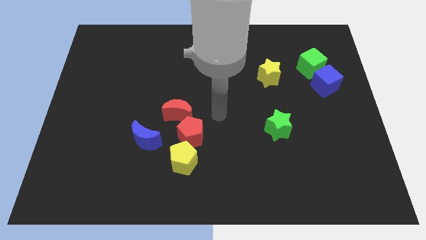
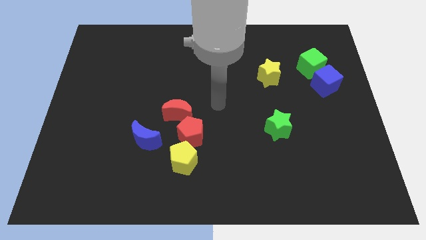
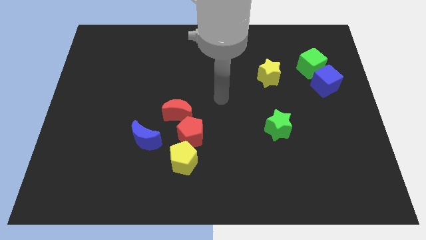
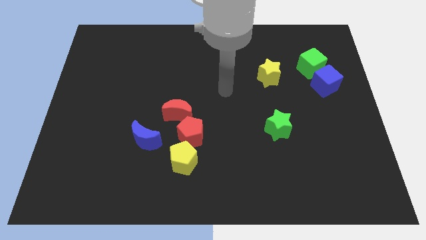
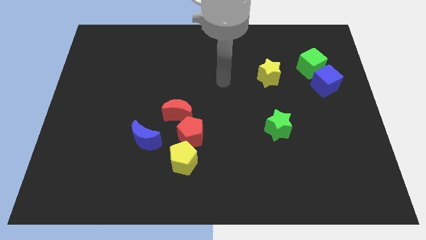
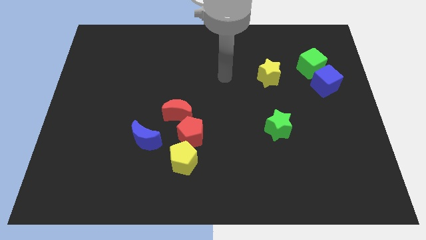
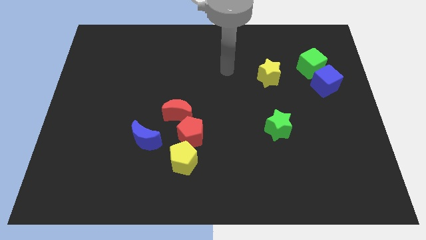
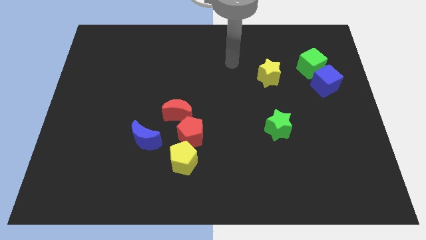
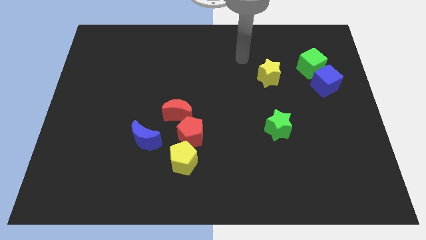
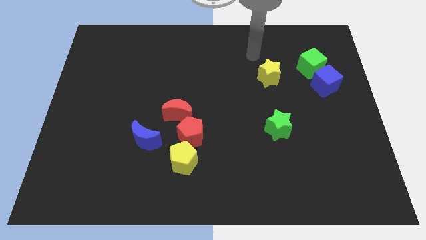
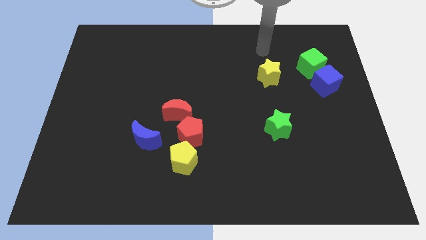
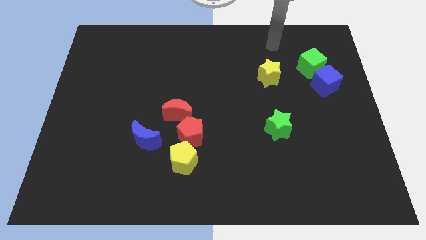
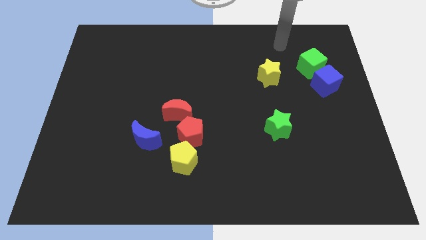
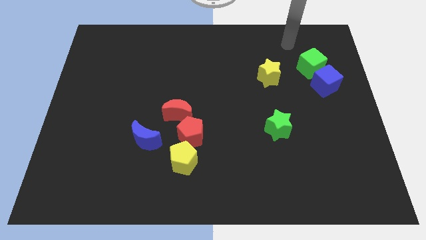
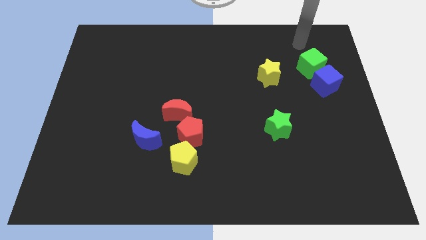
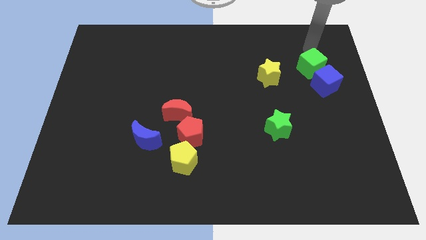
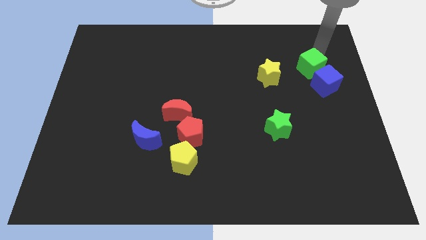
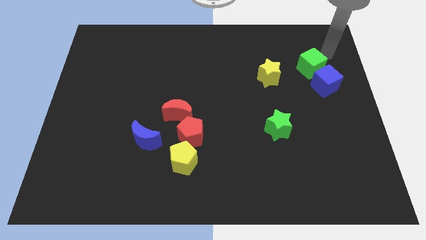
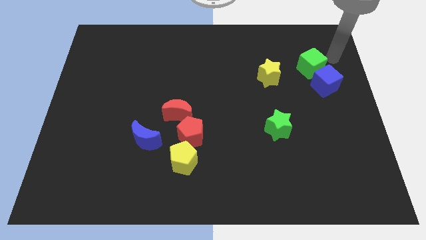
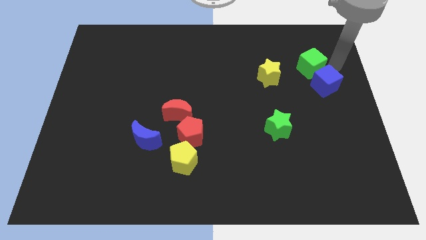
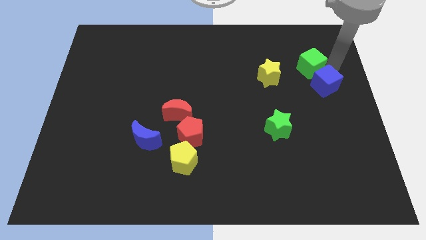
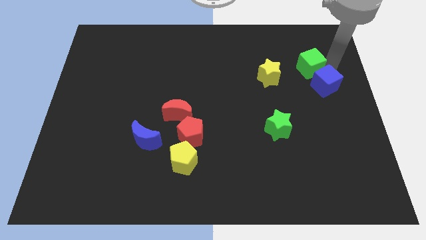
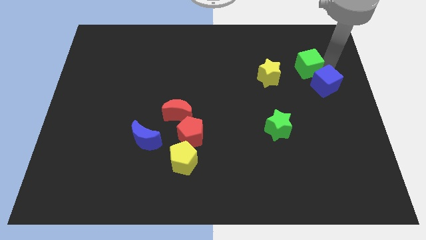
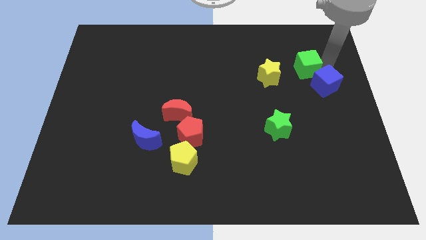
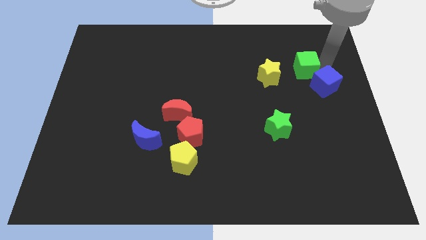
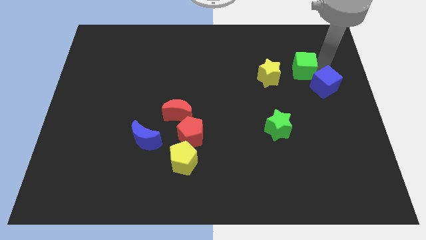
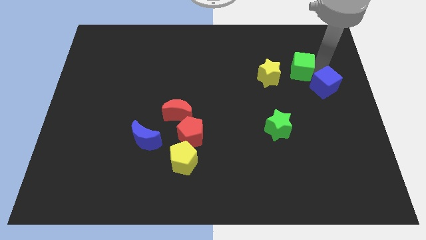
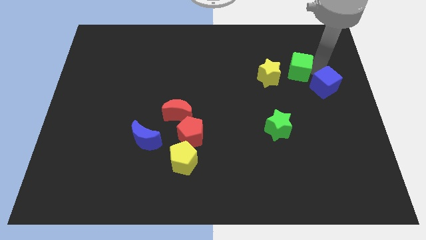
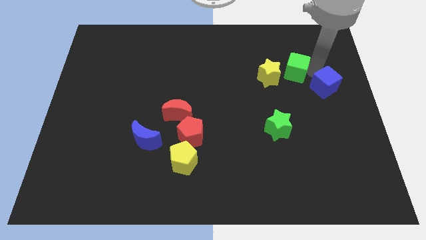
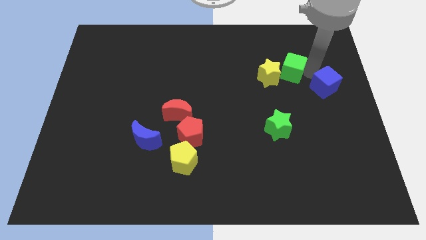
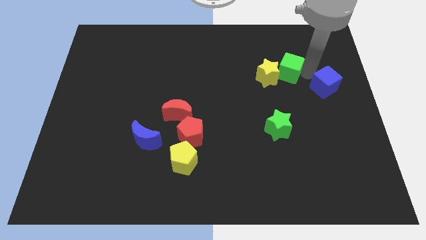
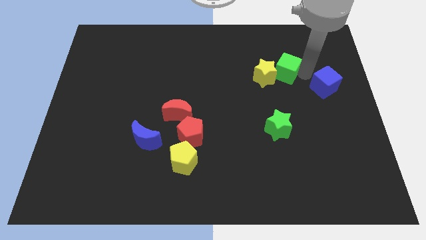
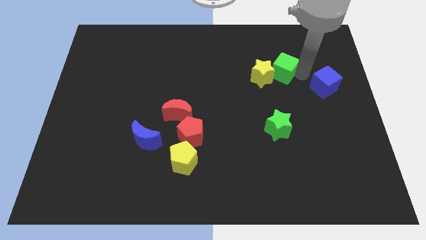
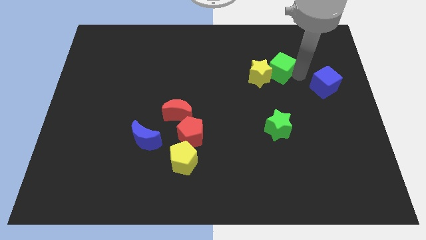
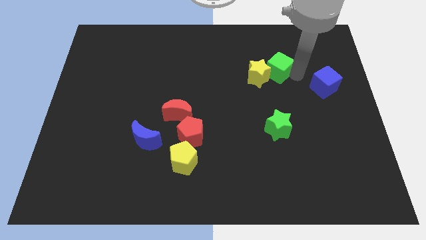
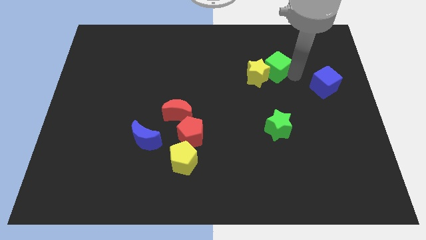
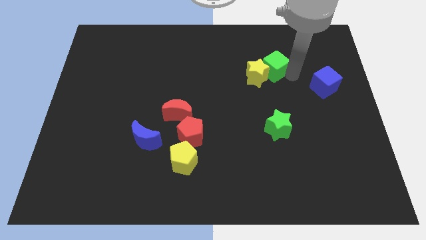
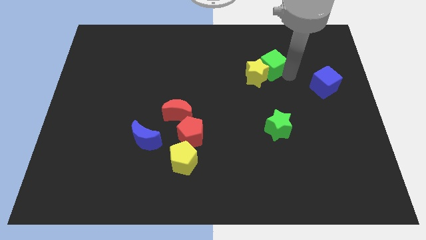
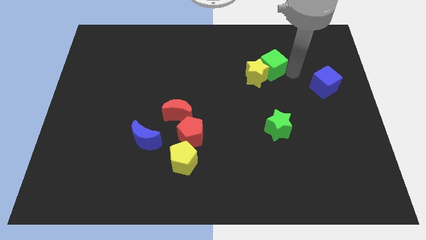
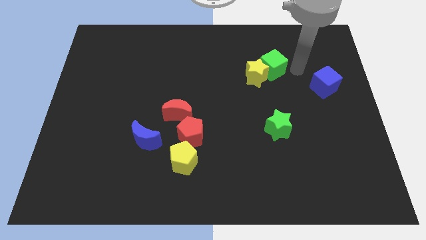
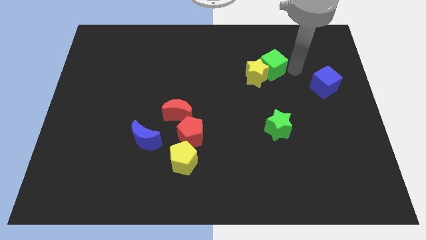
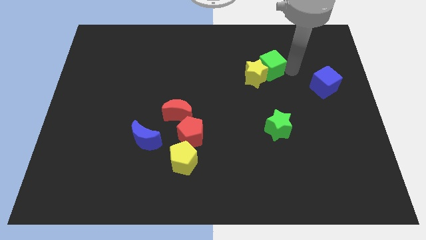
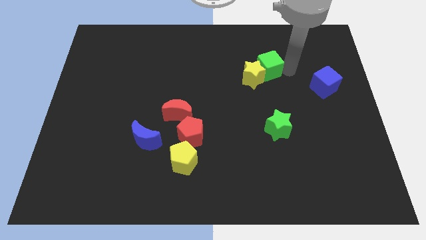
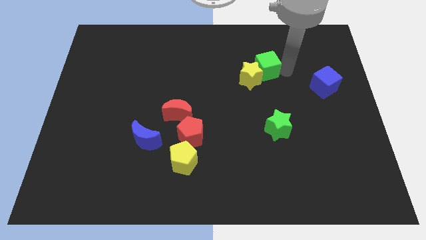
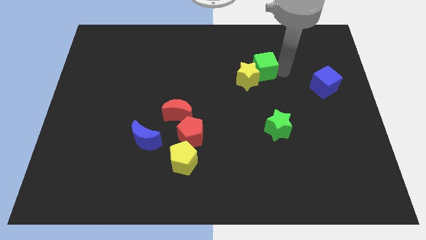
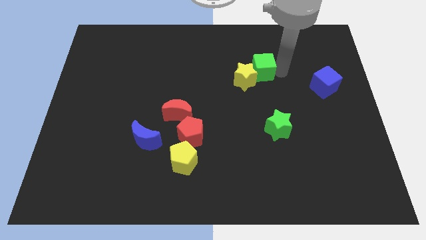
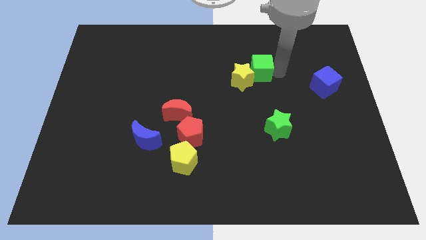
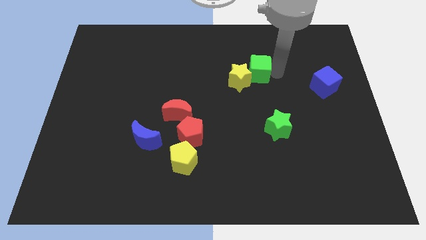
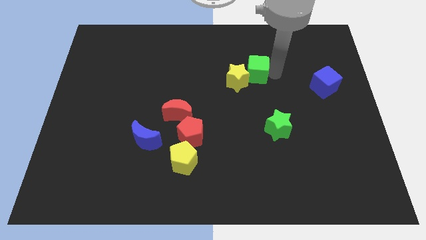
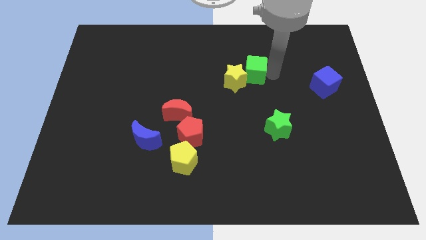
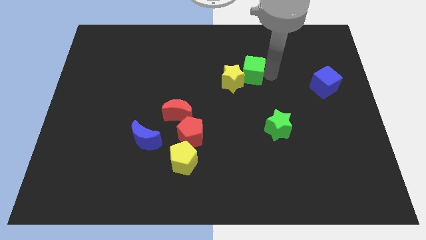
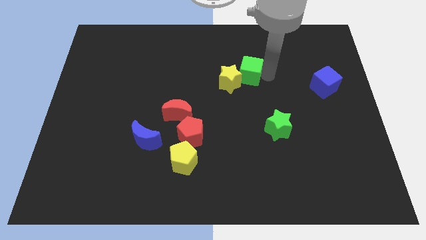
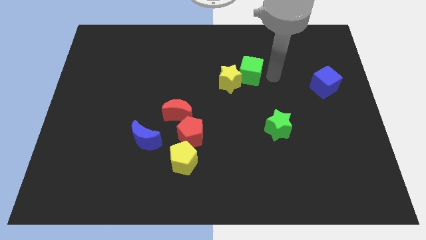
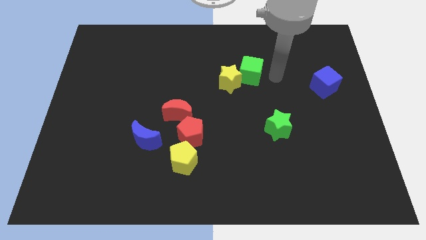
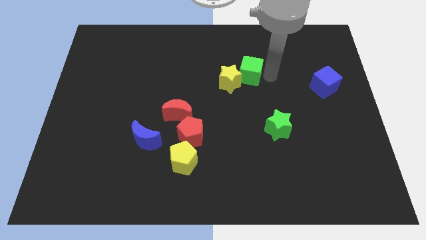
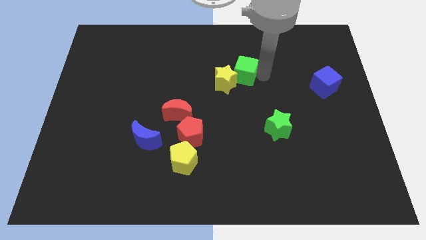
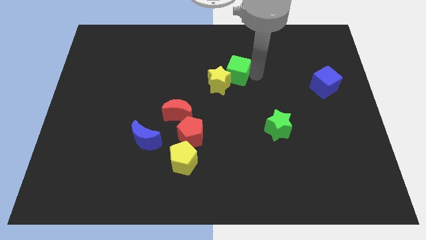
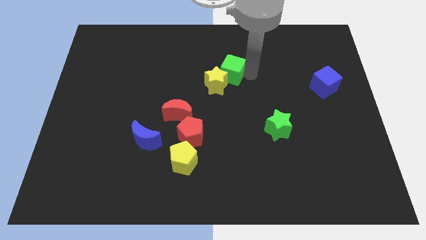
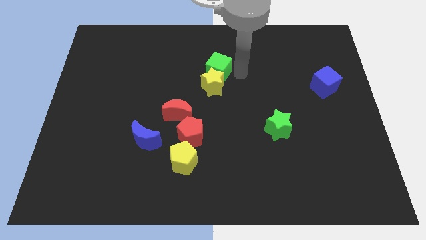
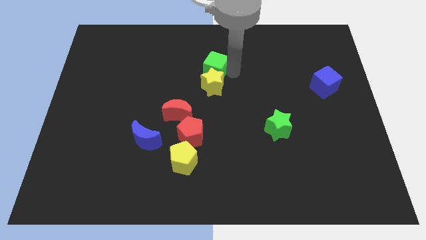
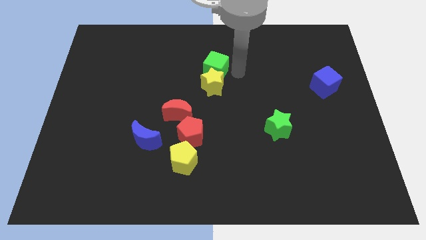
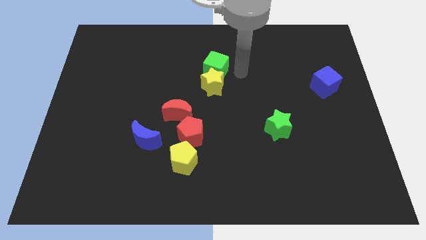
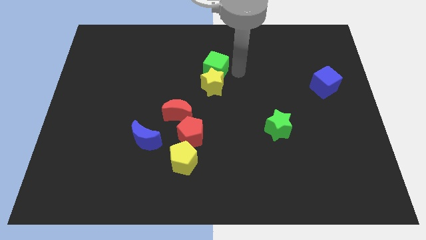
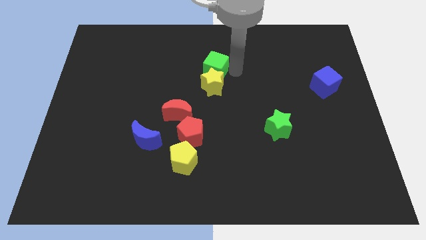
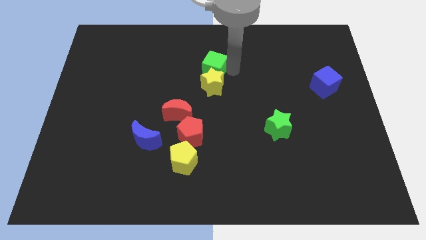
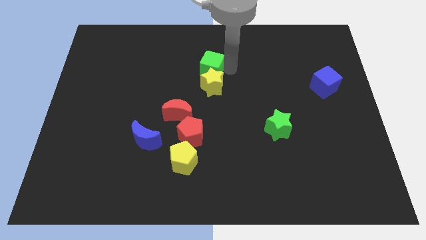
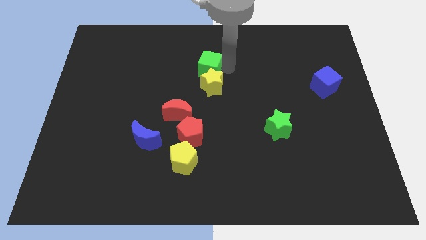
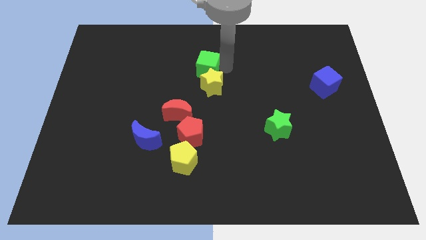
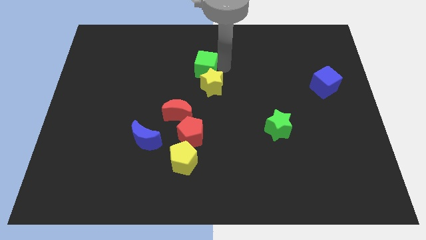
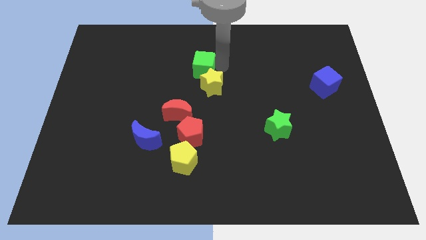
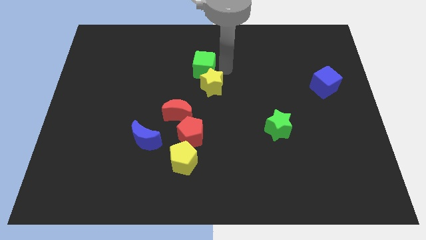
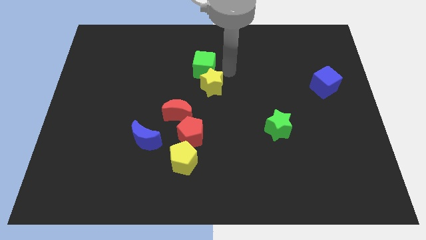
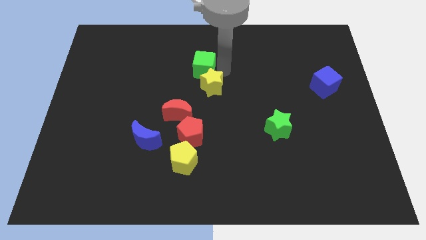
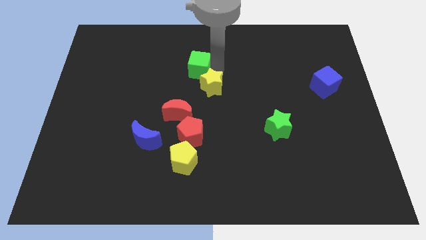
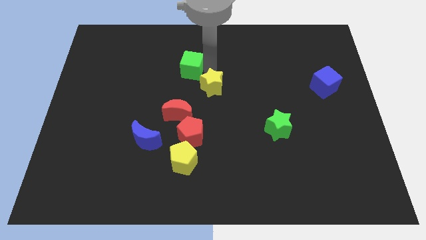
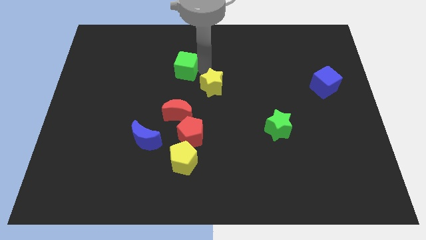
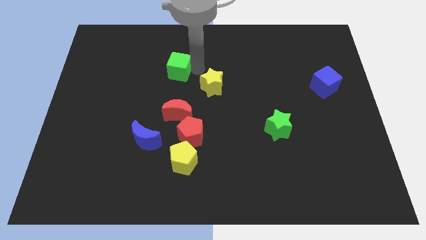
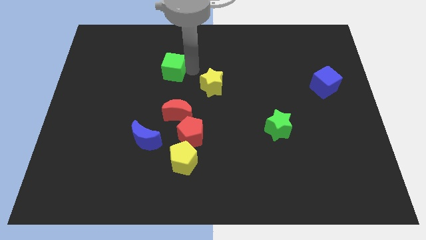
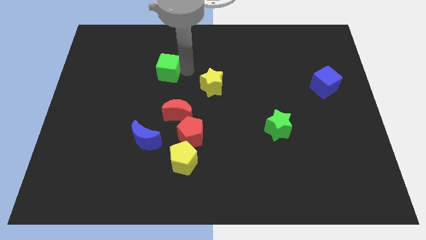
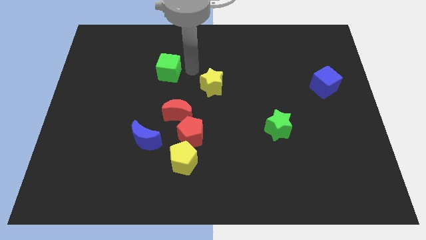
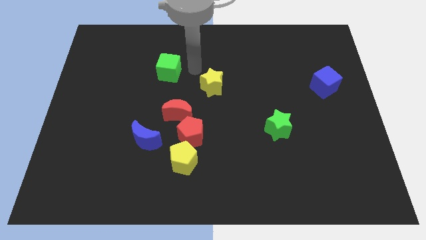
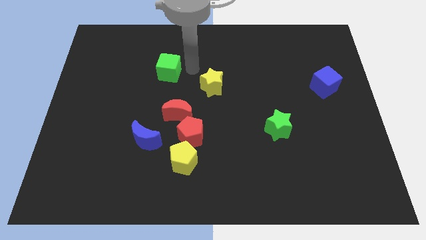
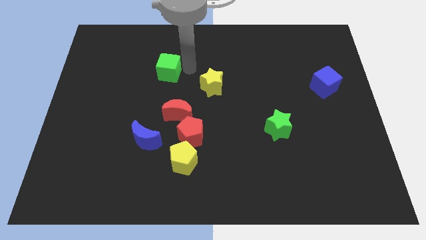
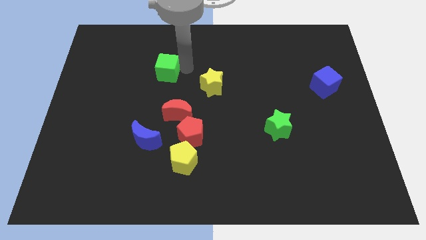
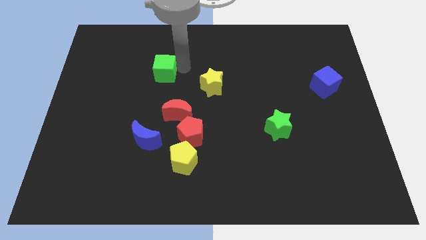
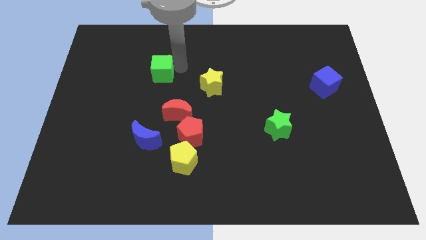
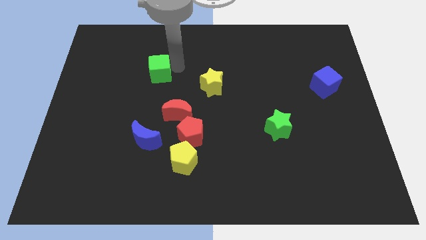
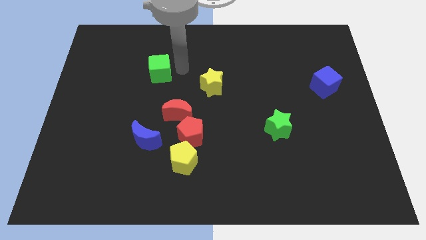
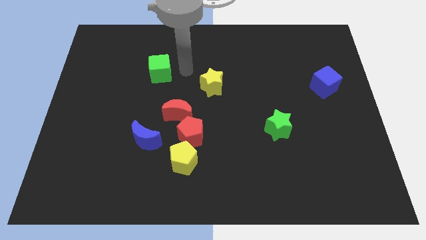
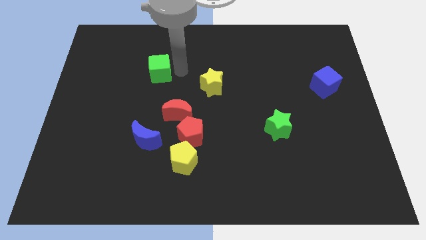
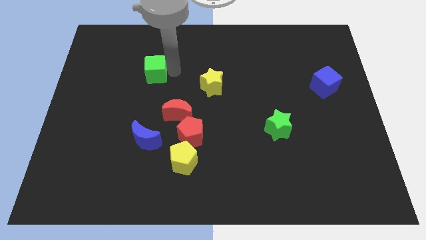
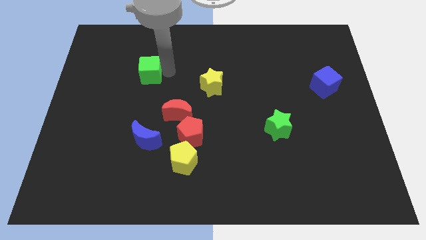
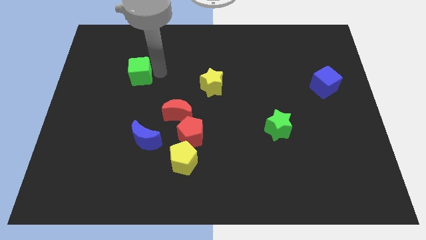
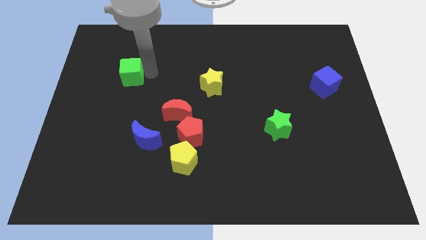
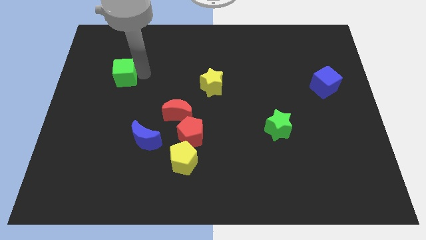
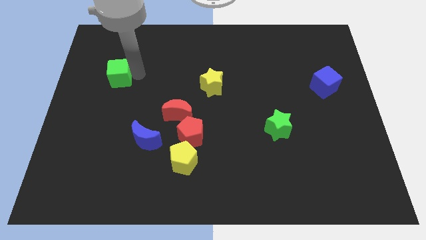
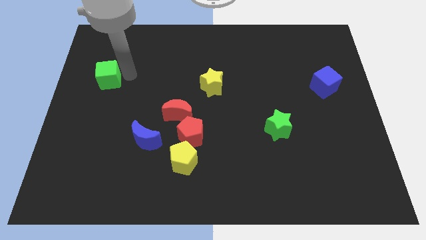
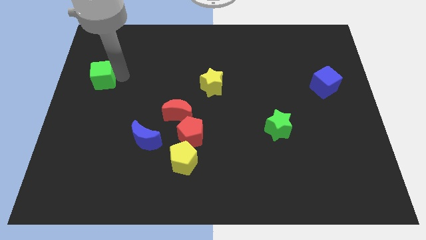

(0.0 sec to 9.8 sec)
slide the green cube to the left side of the board
